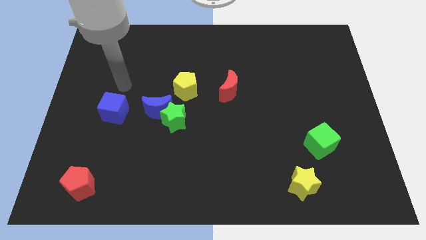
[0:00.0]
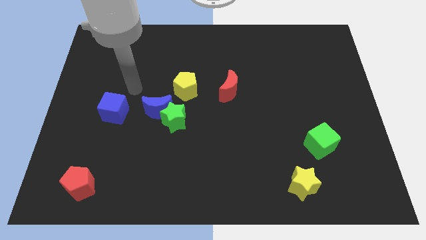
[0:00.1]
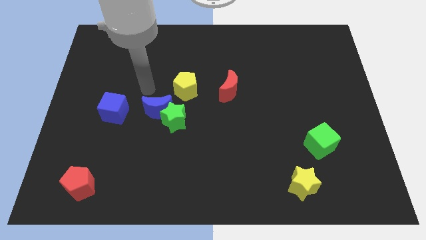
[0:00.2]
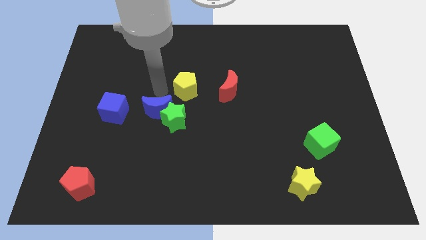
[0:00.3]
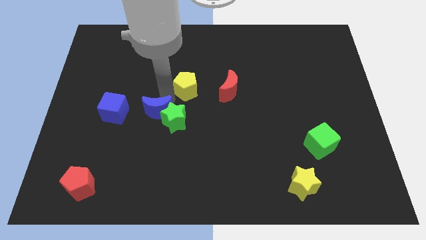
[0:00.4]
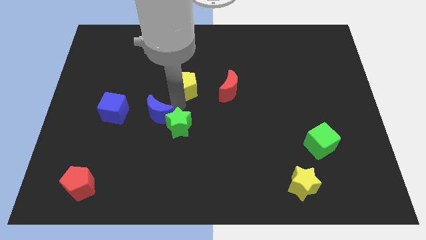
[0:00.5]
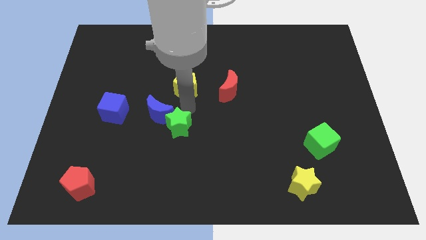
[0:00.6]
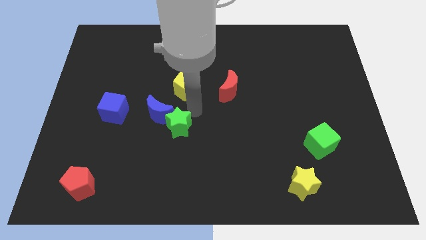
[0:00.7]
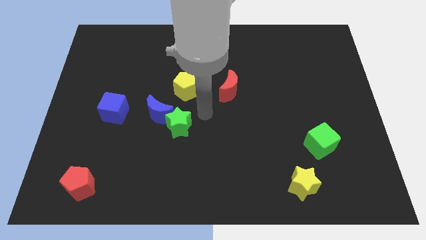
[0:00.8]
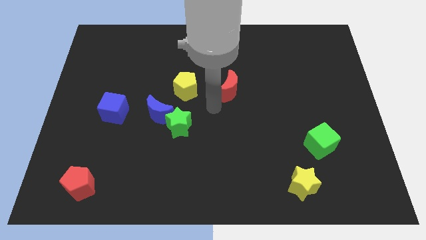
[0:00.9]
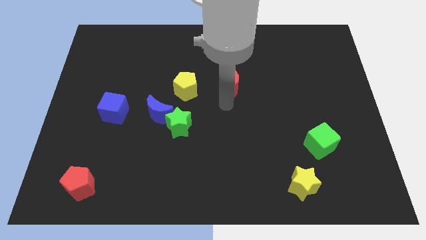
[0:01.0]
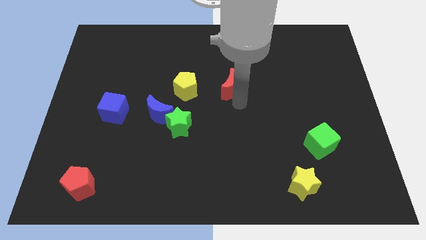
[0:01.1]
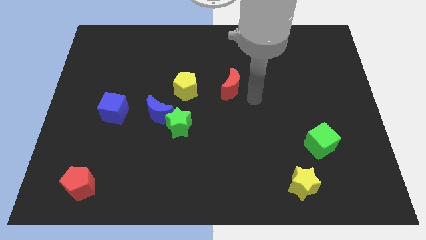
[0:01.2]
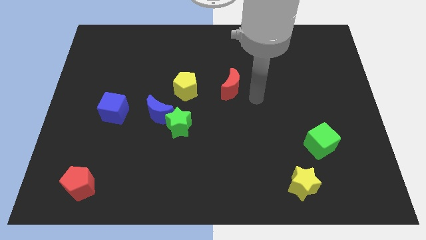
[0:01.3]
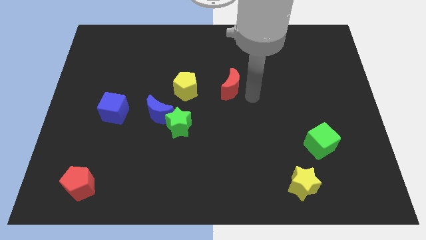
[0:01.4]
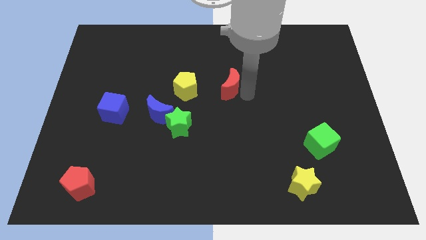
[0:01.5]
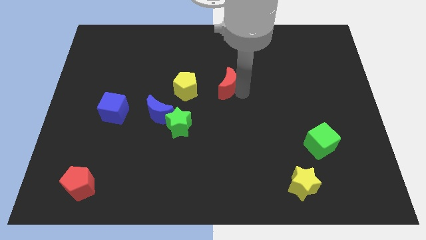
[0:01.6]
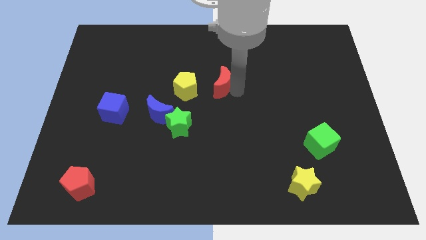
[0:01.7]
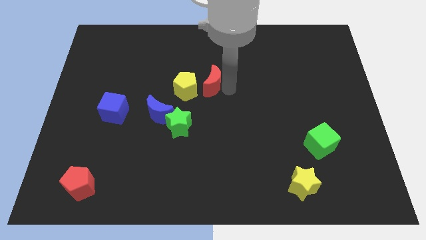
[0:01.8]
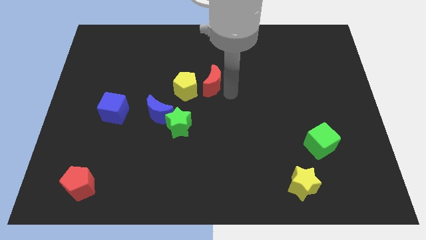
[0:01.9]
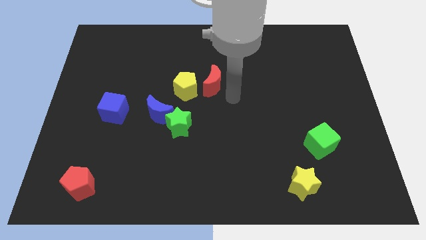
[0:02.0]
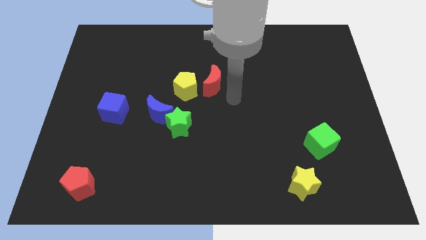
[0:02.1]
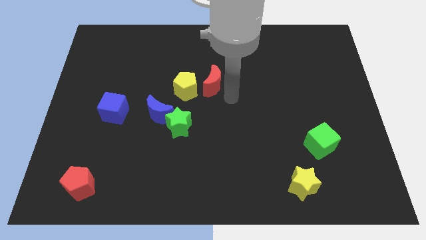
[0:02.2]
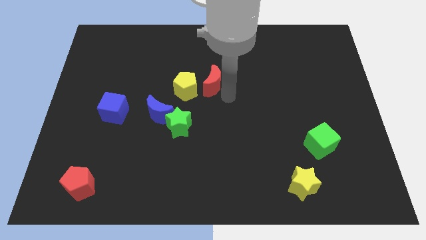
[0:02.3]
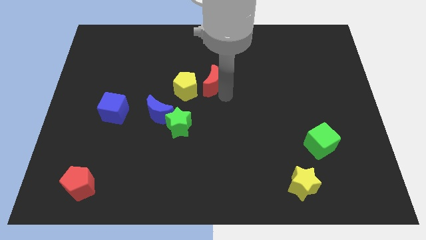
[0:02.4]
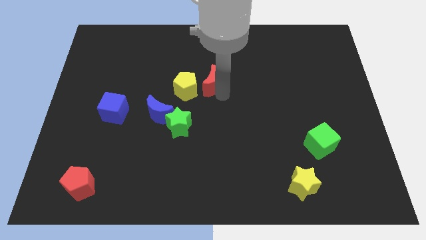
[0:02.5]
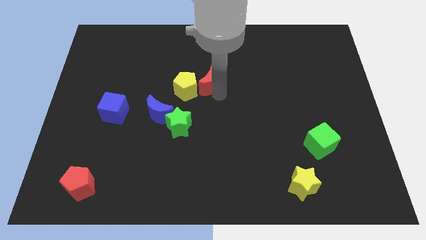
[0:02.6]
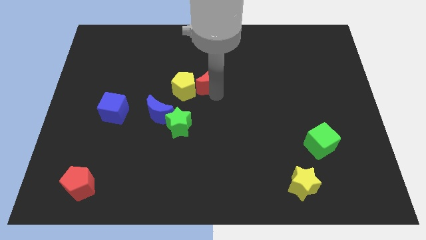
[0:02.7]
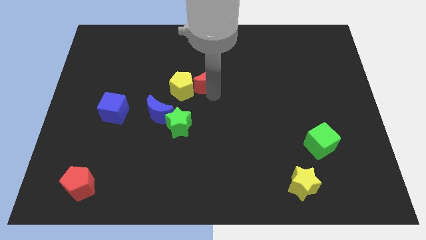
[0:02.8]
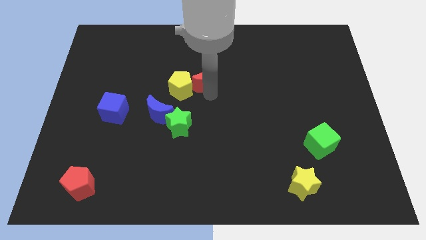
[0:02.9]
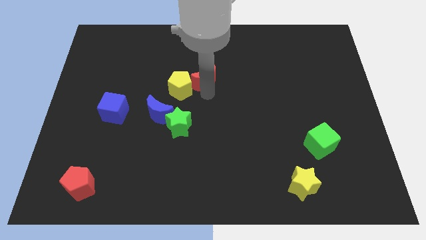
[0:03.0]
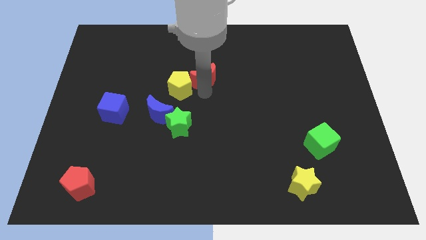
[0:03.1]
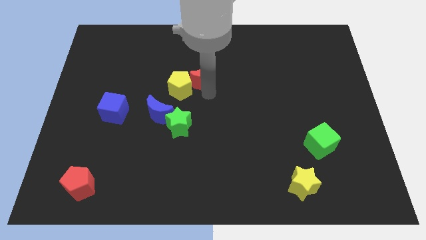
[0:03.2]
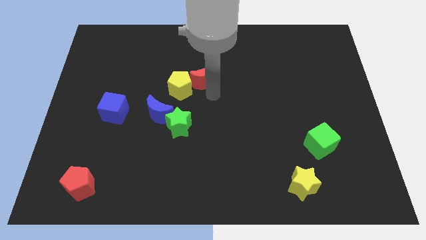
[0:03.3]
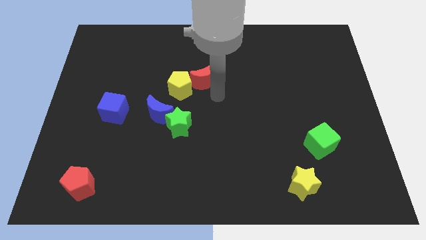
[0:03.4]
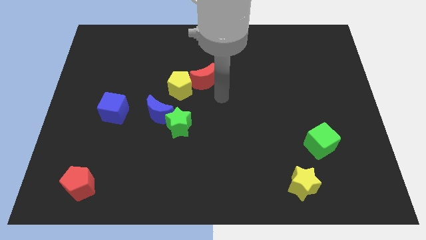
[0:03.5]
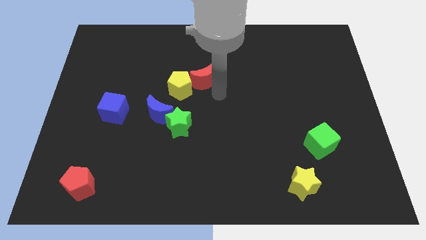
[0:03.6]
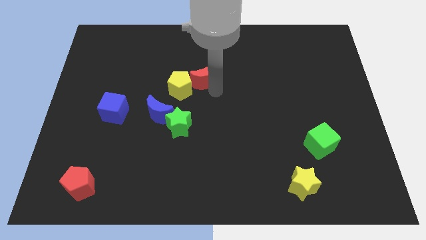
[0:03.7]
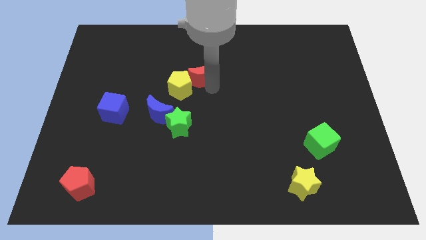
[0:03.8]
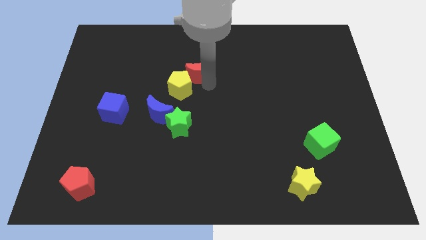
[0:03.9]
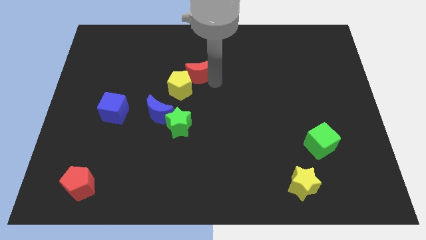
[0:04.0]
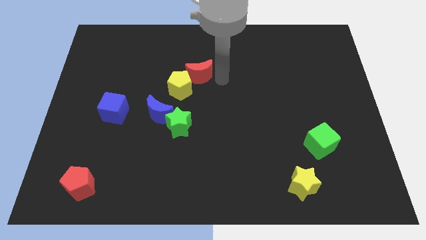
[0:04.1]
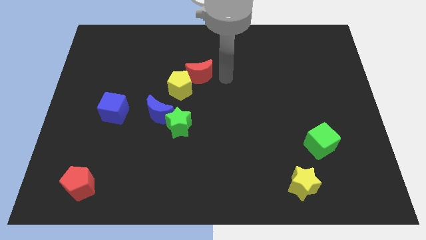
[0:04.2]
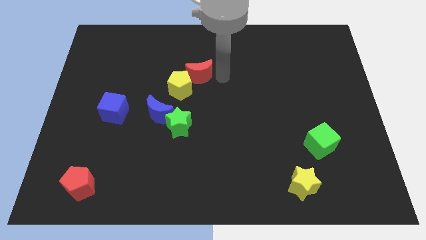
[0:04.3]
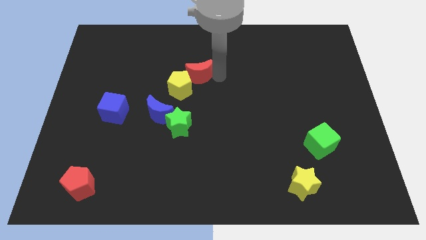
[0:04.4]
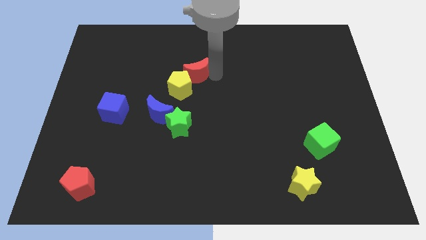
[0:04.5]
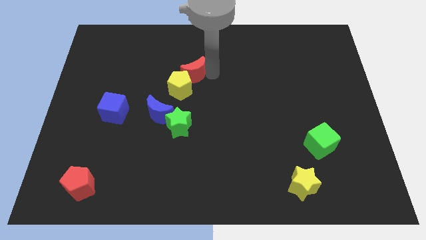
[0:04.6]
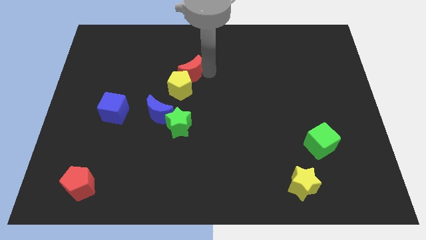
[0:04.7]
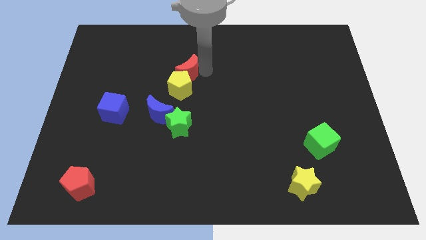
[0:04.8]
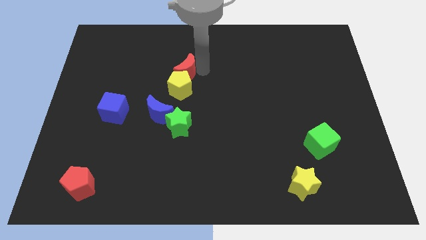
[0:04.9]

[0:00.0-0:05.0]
slide the red moon to the top left side of the yellow pentagon

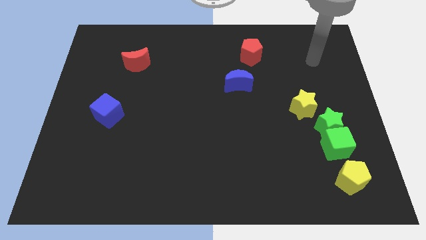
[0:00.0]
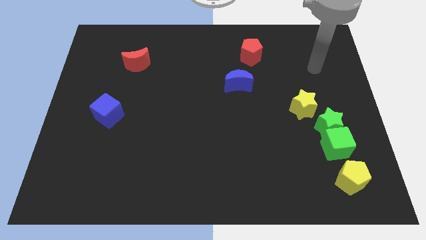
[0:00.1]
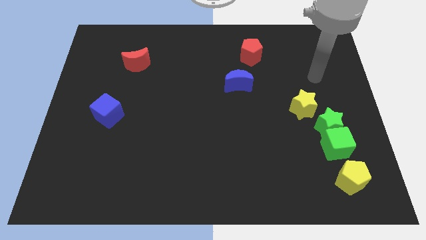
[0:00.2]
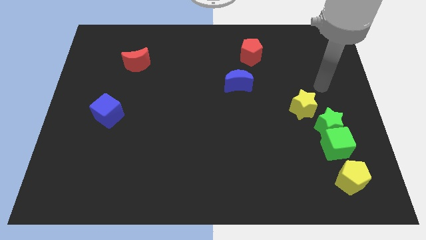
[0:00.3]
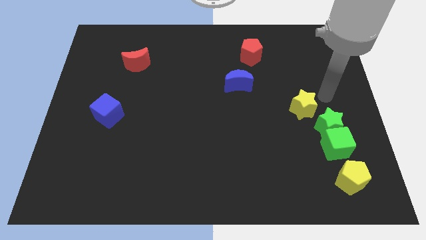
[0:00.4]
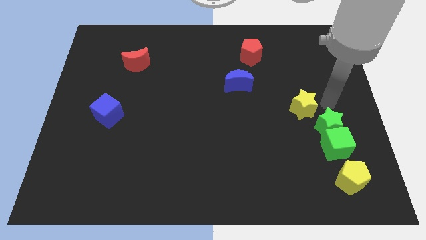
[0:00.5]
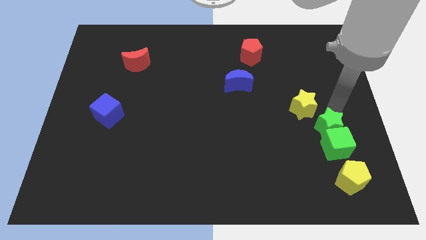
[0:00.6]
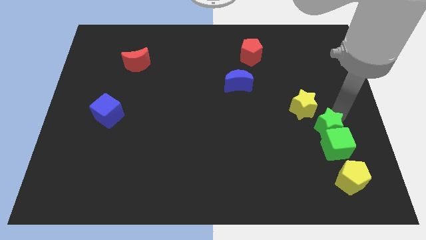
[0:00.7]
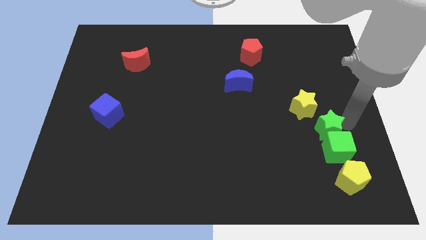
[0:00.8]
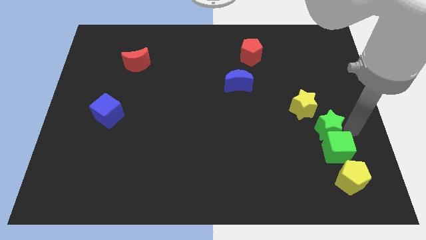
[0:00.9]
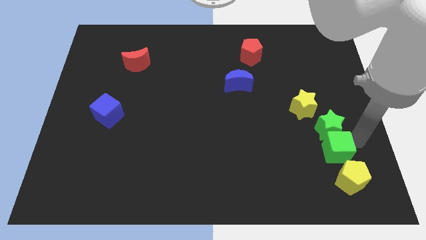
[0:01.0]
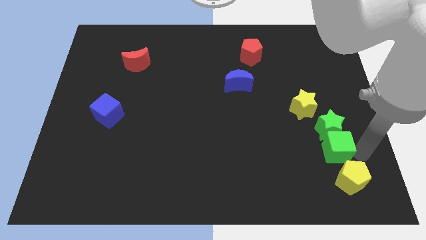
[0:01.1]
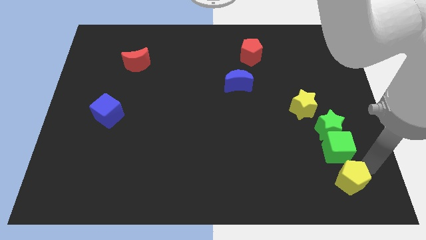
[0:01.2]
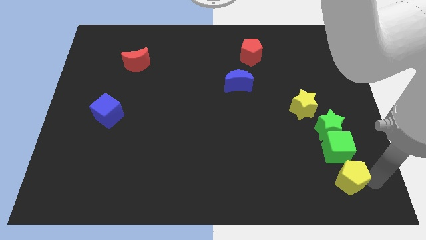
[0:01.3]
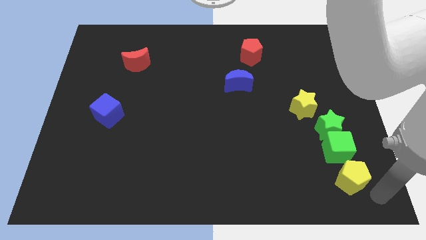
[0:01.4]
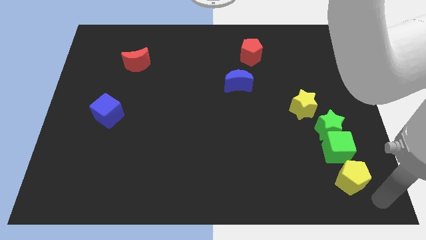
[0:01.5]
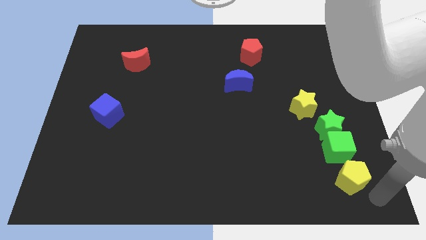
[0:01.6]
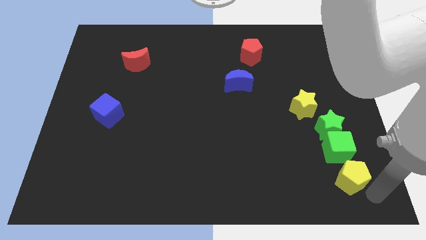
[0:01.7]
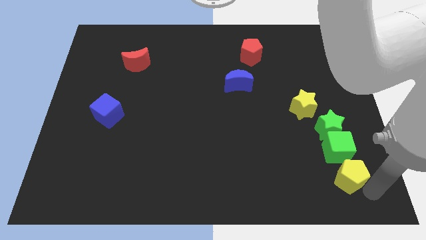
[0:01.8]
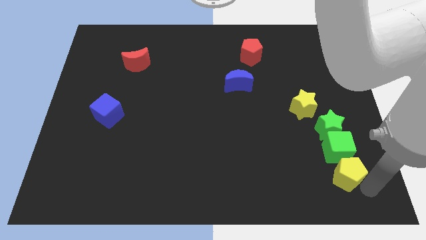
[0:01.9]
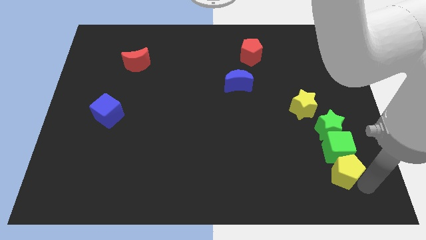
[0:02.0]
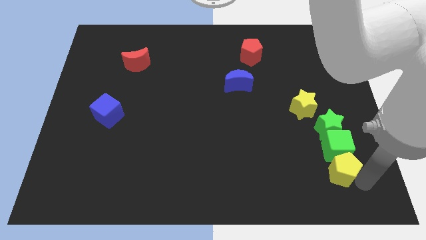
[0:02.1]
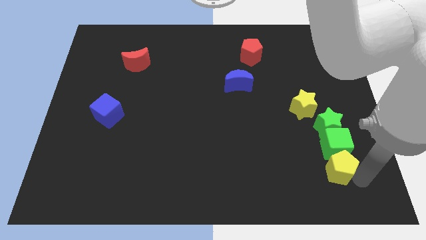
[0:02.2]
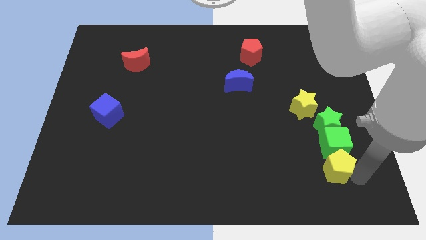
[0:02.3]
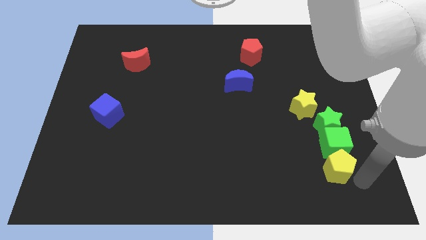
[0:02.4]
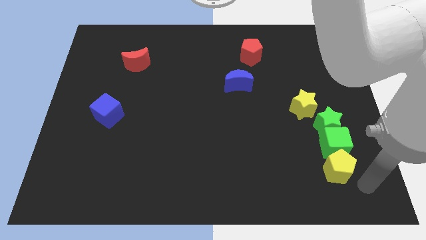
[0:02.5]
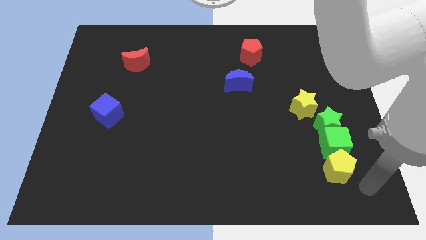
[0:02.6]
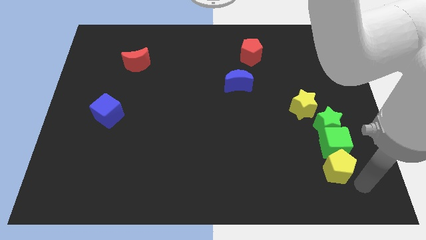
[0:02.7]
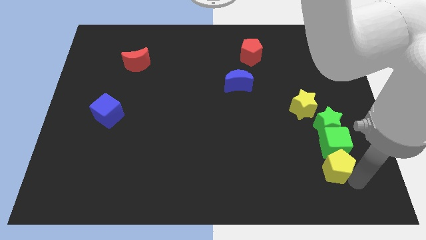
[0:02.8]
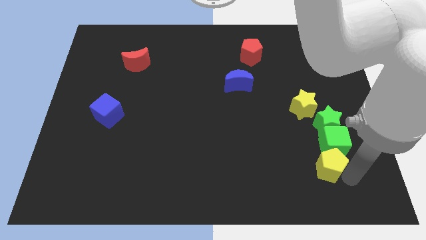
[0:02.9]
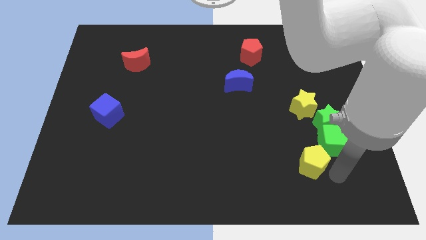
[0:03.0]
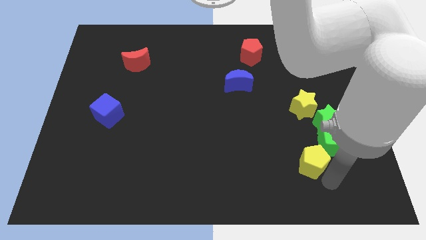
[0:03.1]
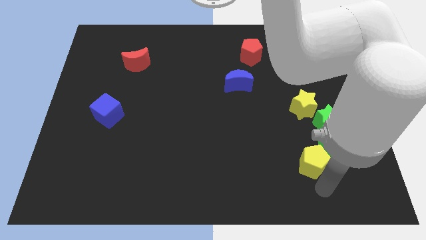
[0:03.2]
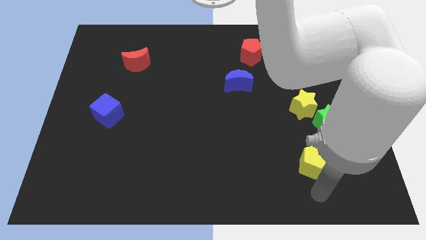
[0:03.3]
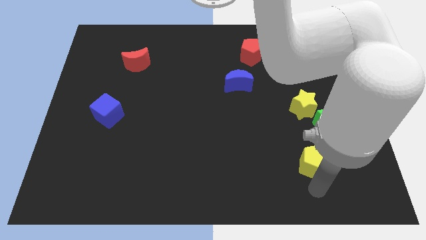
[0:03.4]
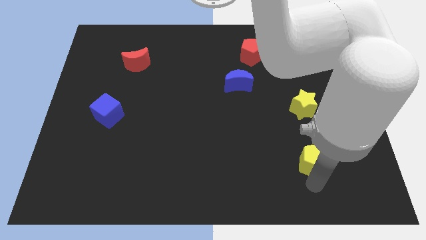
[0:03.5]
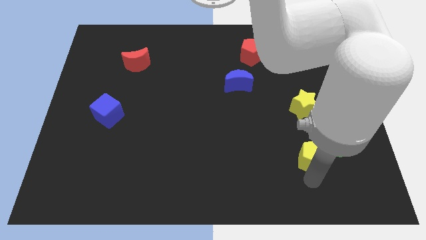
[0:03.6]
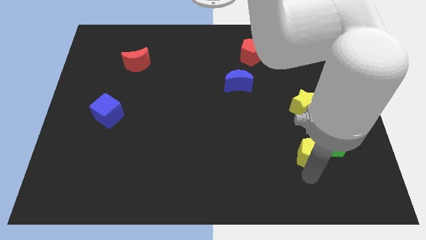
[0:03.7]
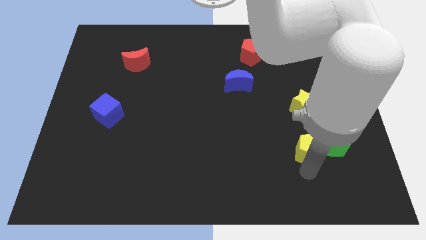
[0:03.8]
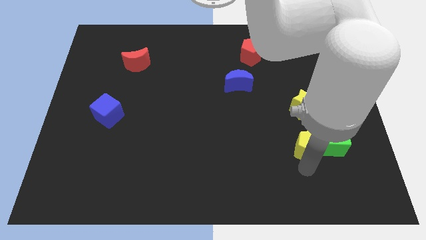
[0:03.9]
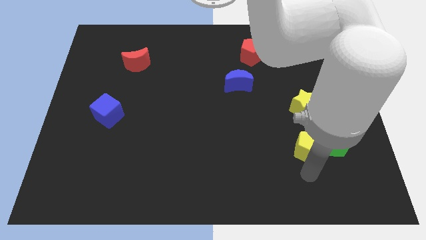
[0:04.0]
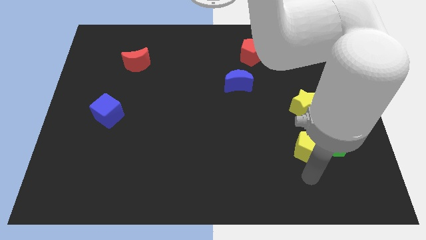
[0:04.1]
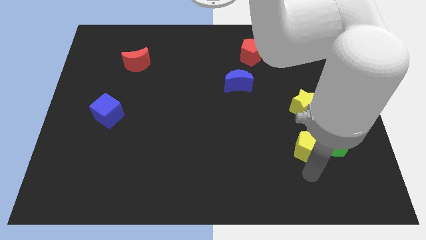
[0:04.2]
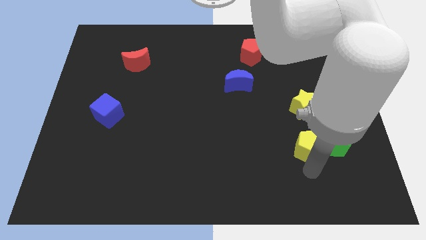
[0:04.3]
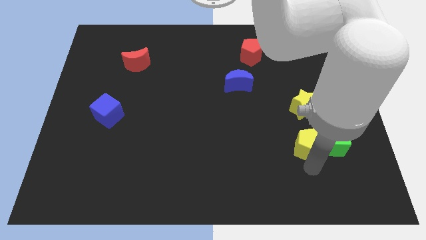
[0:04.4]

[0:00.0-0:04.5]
move the yellow pentagon to the top left side of the green cube
